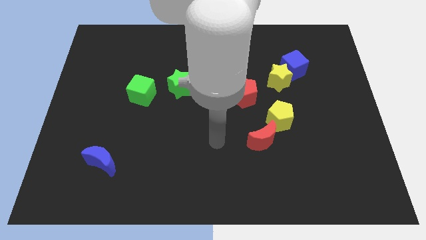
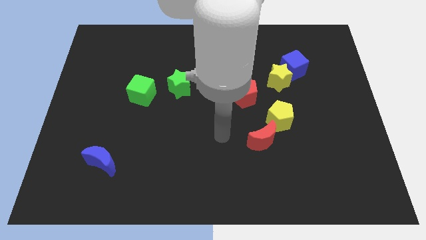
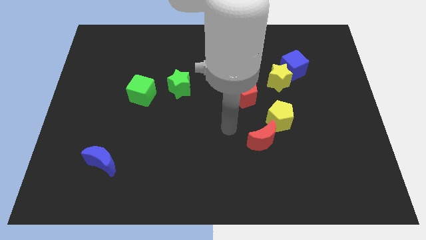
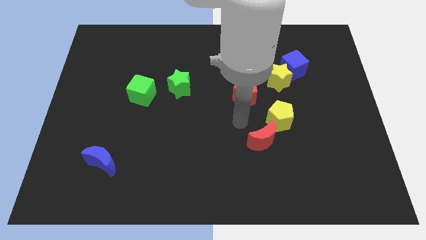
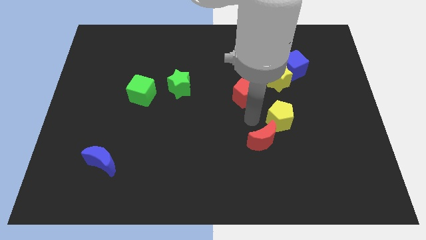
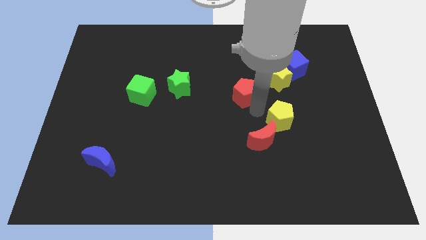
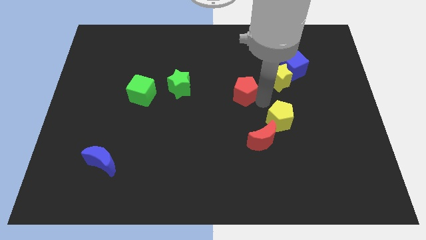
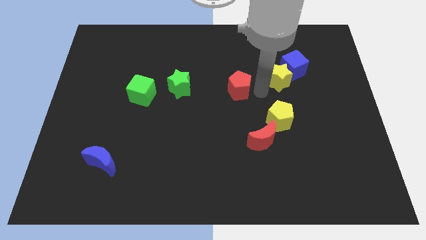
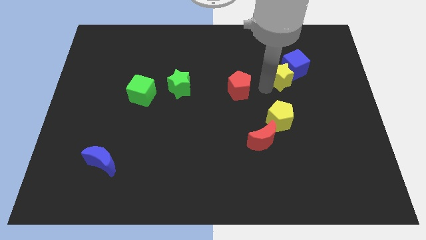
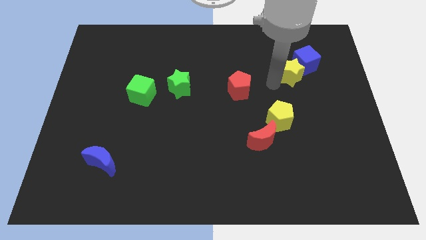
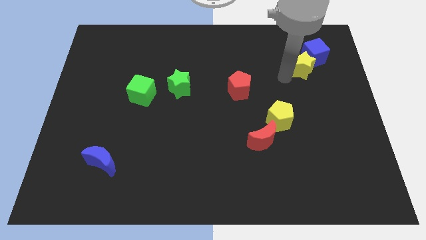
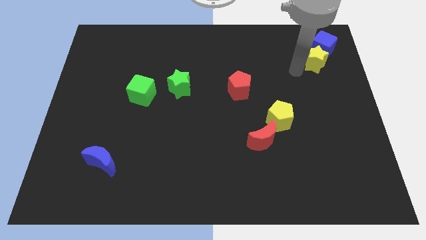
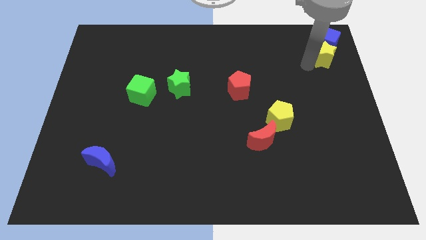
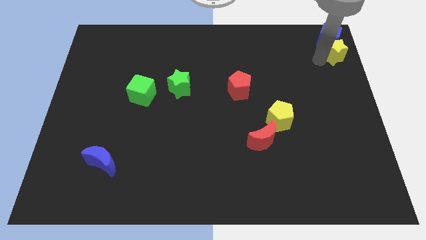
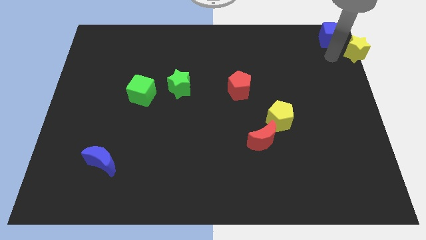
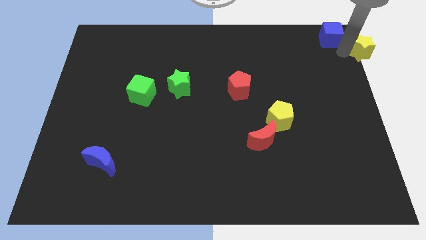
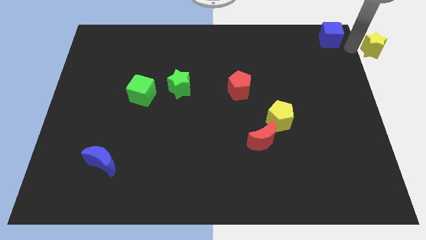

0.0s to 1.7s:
separate the blue cube from the yellow star

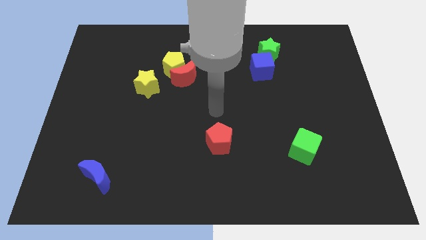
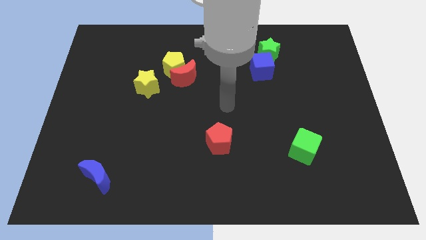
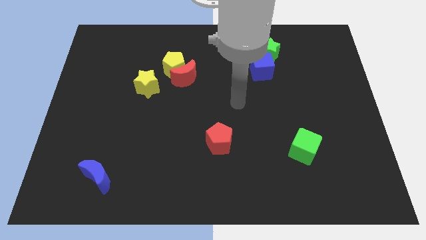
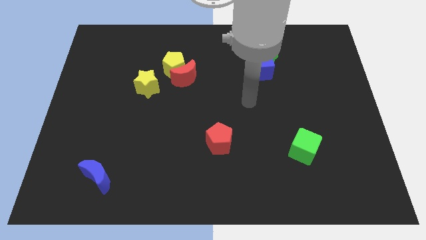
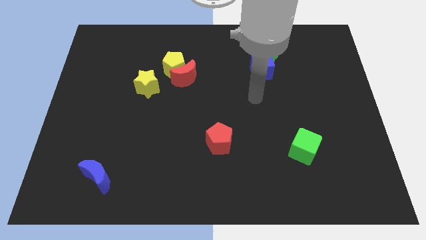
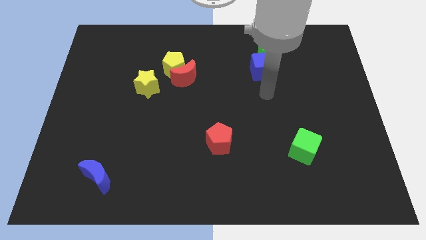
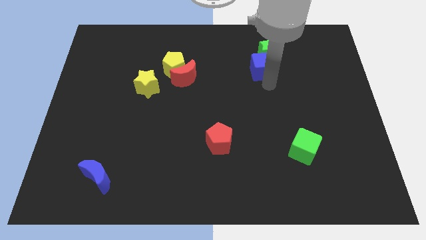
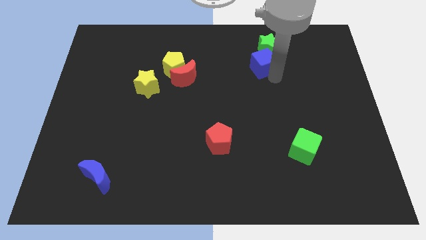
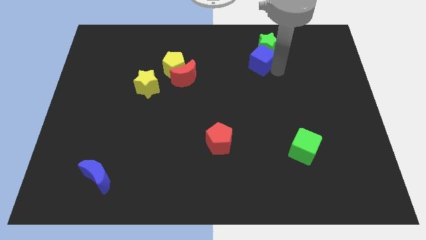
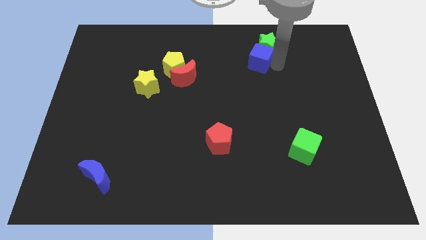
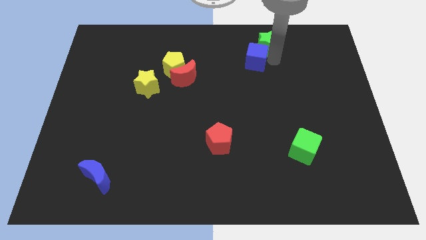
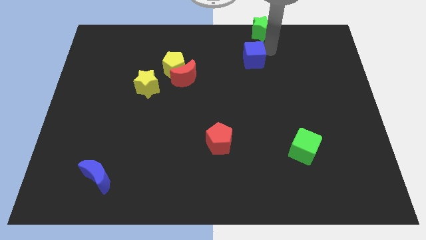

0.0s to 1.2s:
move the blue cube away from the green star

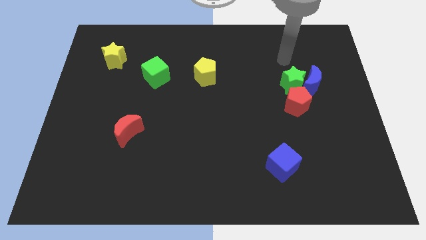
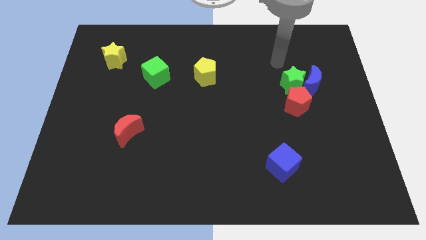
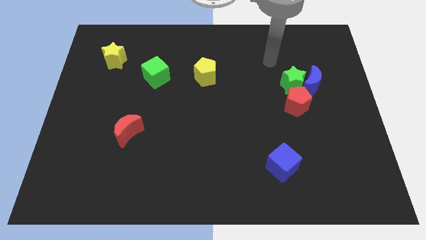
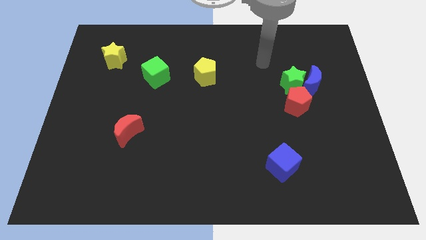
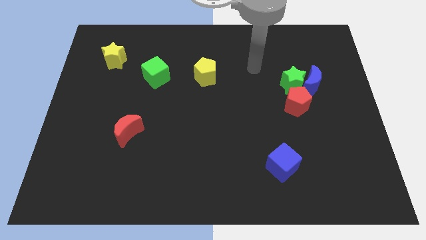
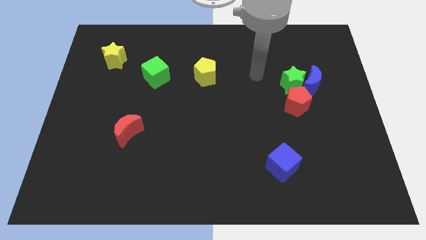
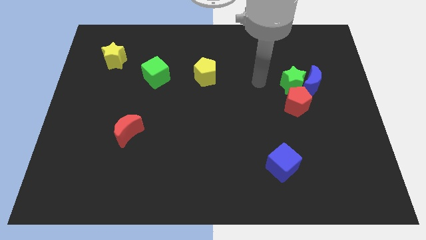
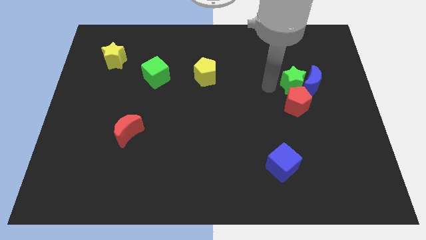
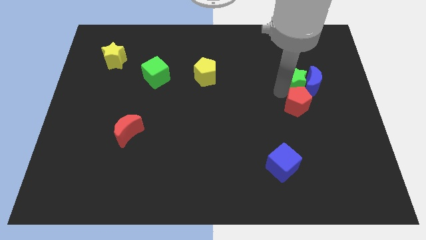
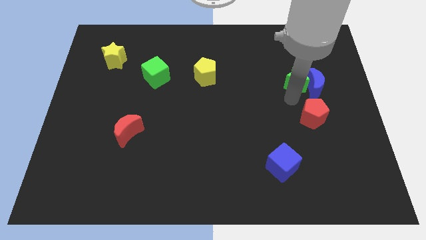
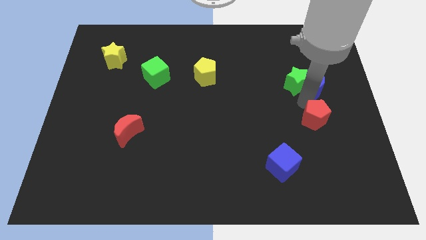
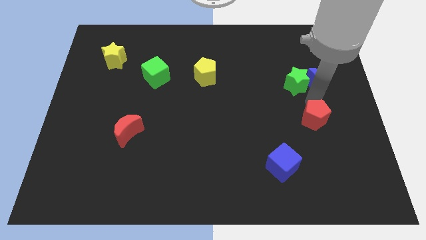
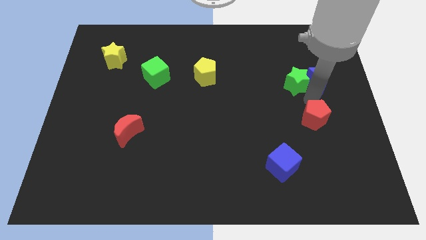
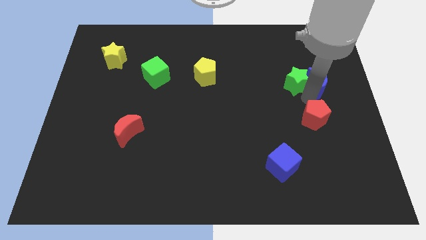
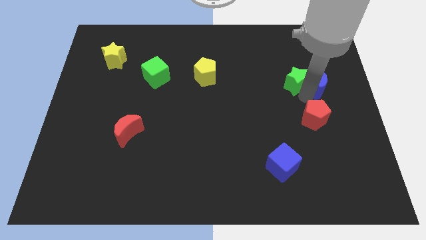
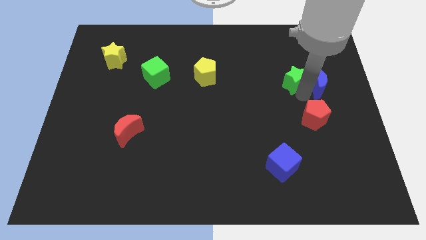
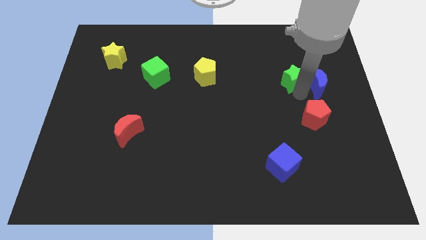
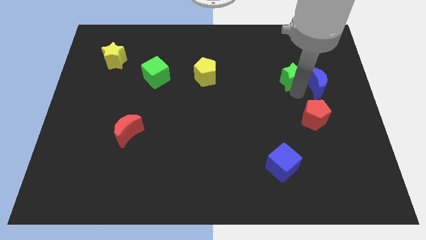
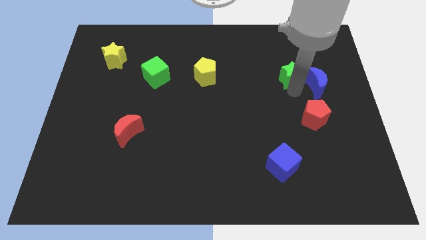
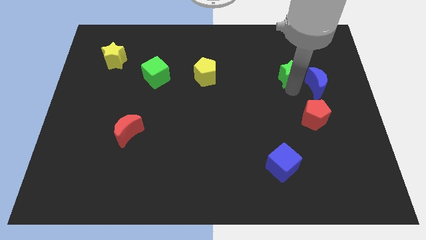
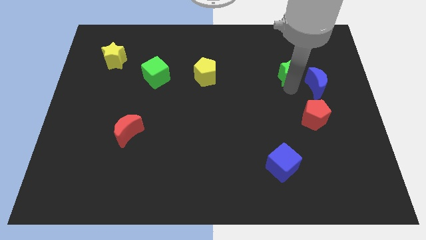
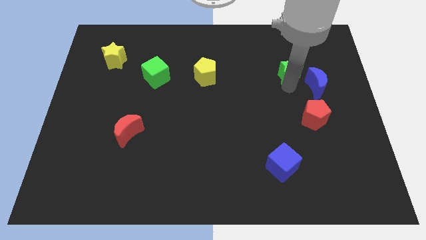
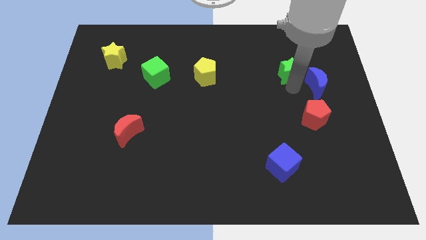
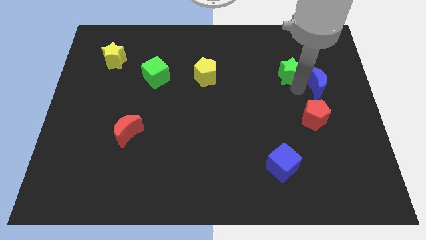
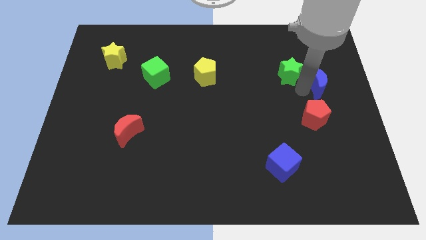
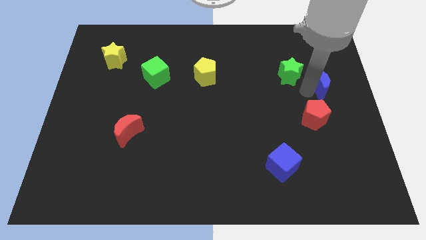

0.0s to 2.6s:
move the green star away from the blue moon and red pentagon

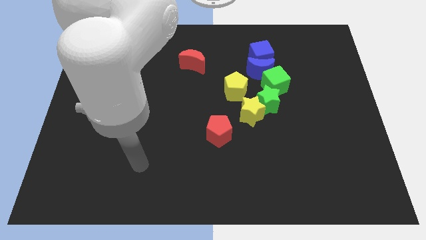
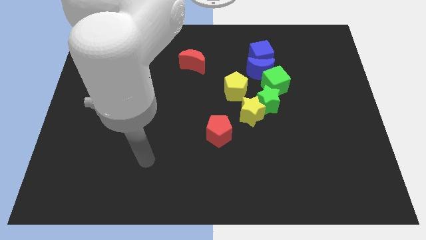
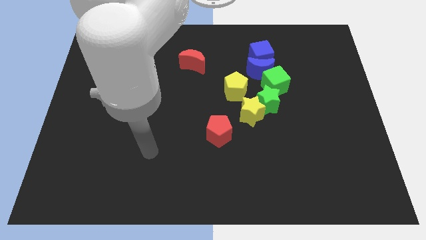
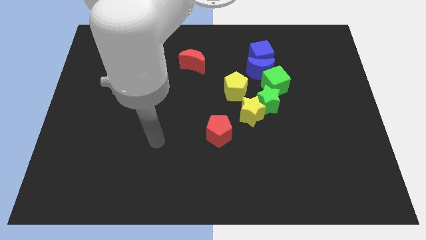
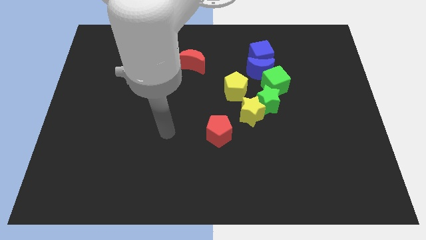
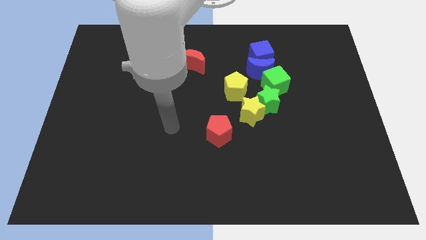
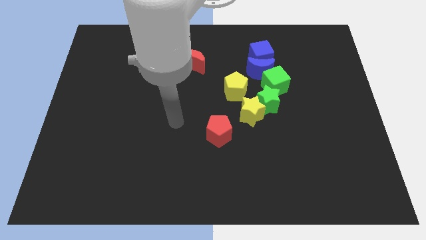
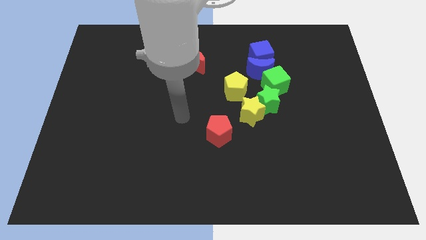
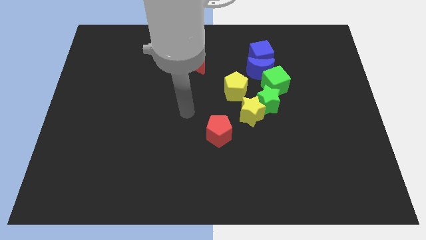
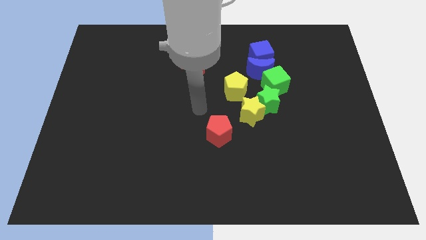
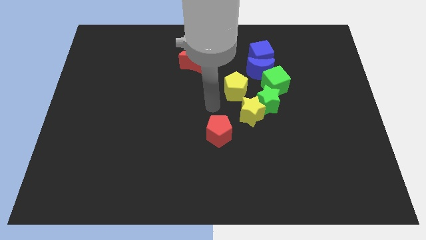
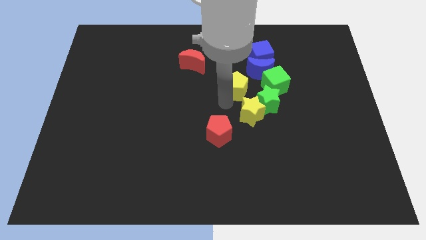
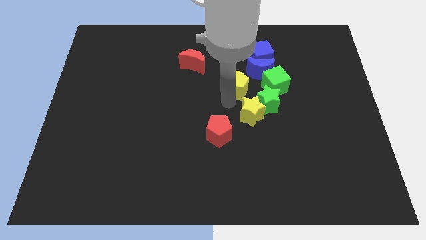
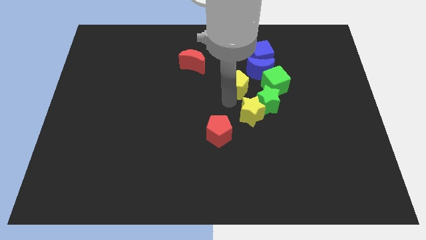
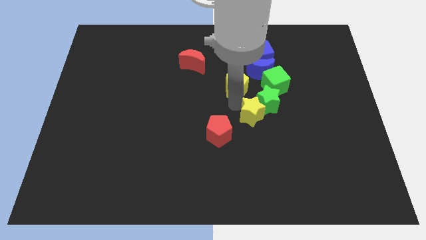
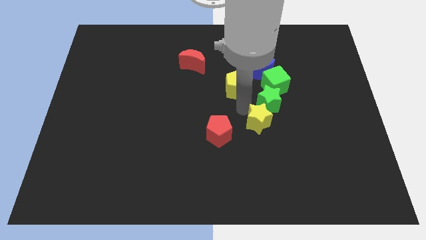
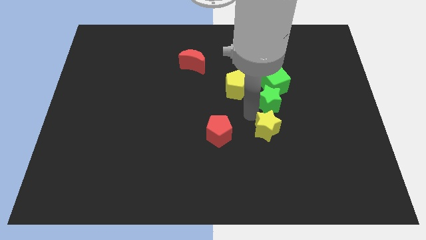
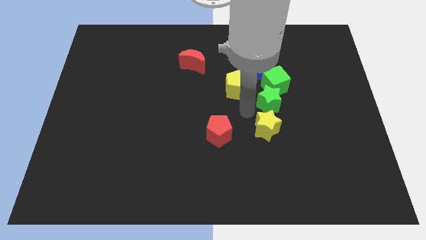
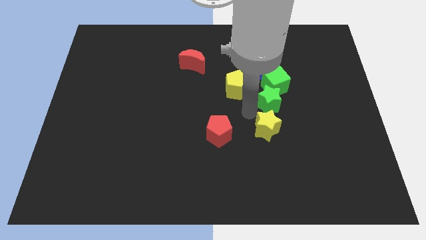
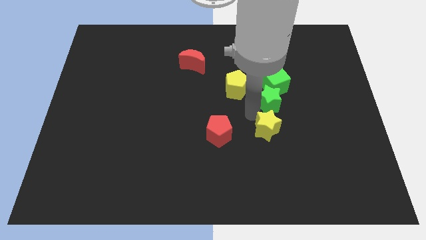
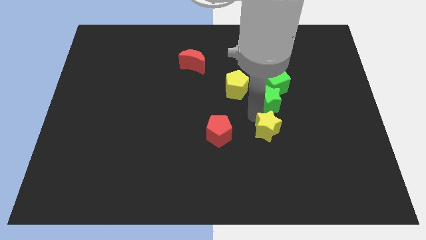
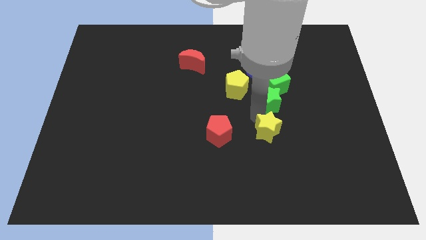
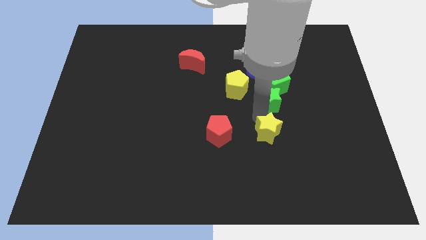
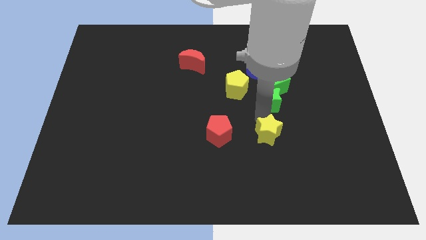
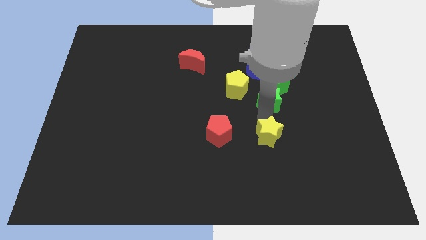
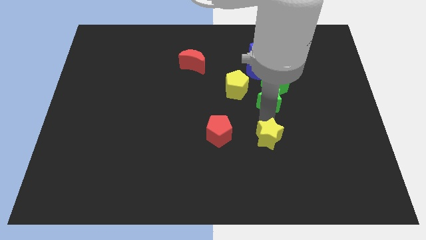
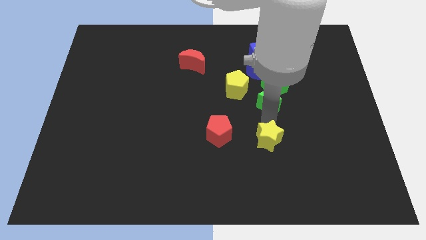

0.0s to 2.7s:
move the yellow star away from the group of blocks

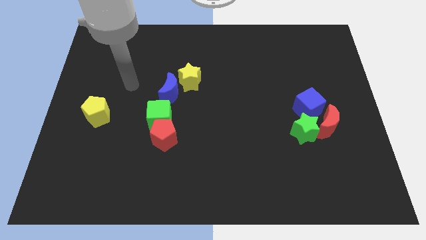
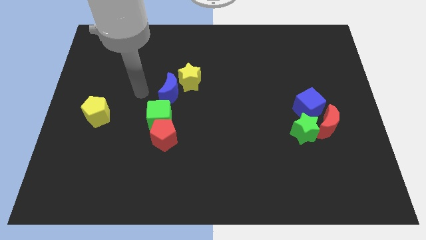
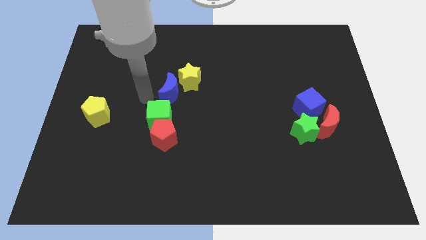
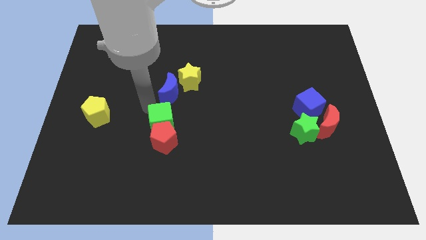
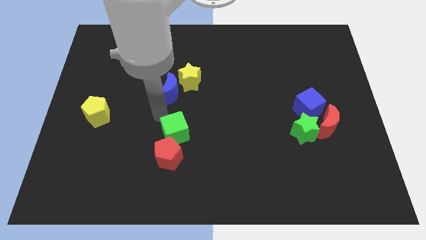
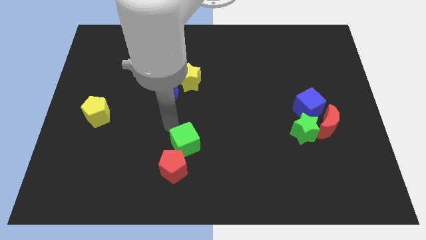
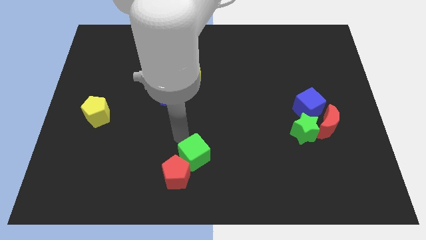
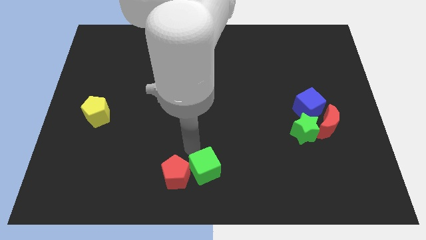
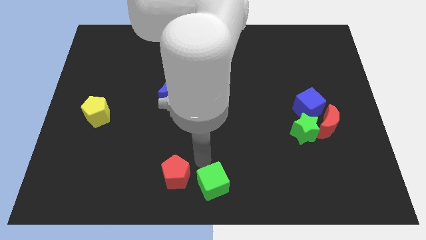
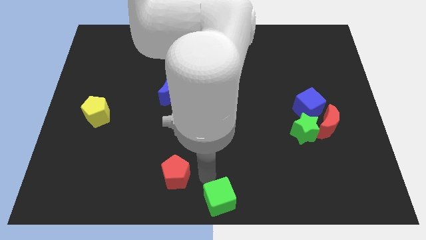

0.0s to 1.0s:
move the red pentagon away from the green cube
